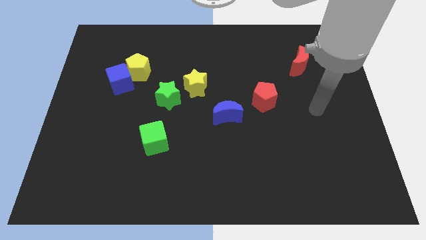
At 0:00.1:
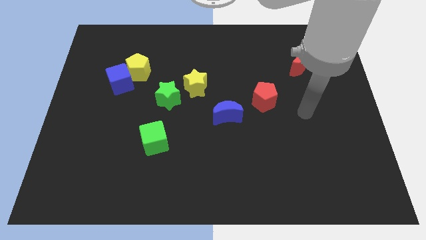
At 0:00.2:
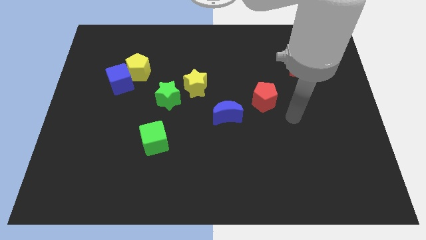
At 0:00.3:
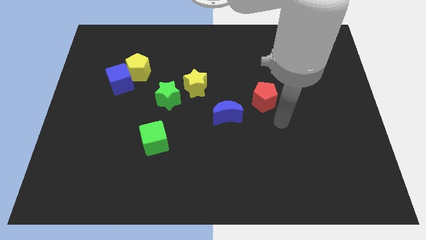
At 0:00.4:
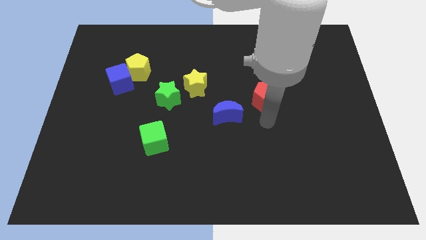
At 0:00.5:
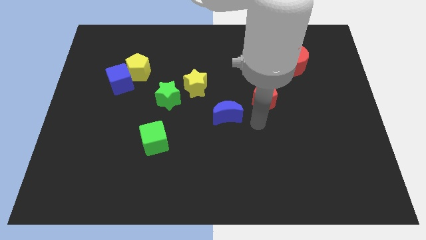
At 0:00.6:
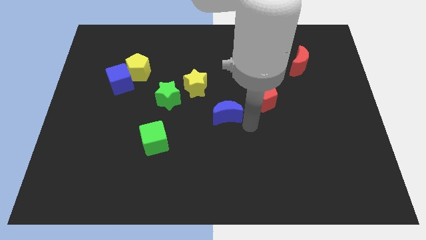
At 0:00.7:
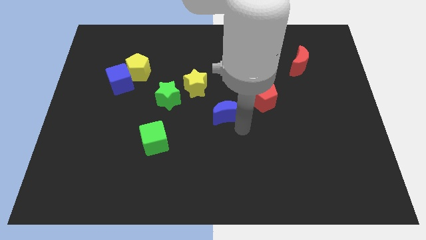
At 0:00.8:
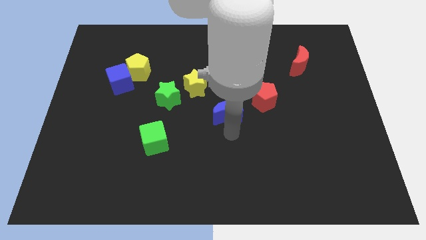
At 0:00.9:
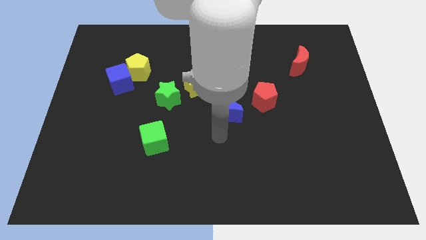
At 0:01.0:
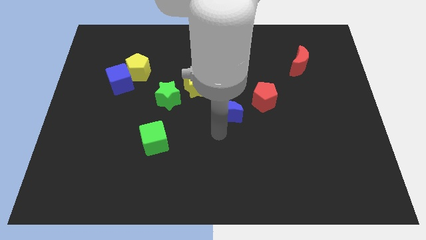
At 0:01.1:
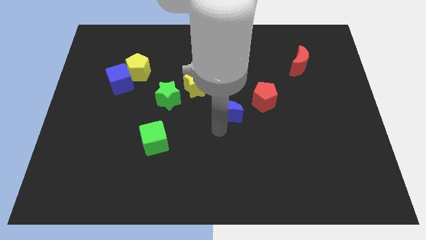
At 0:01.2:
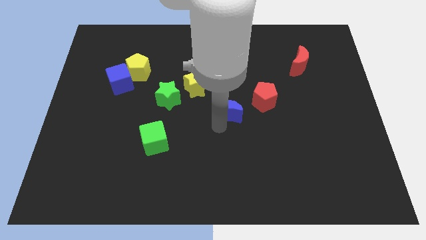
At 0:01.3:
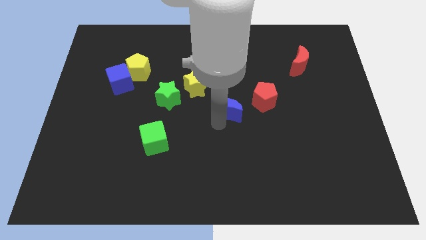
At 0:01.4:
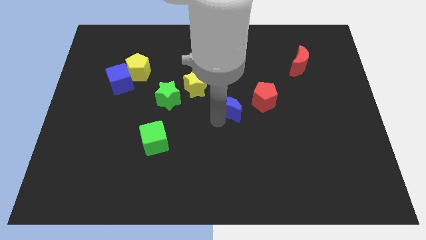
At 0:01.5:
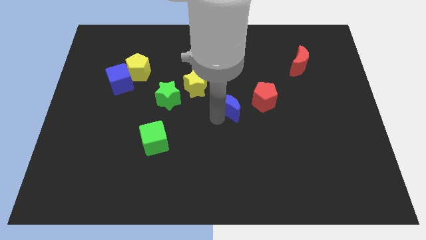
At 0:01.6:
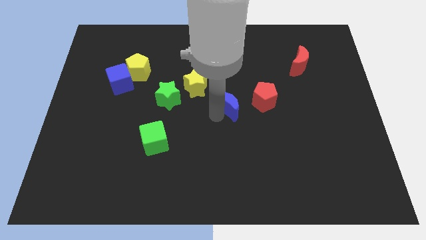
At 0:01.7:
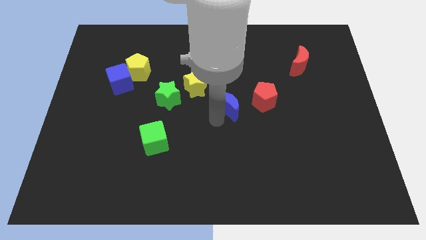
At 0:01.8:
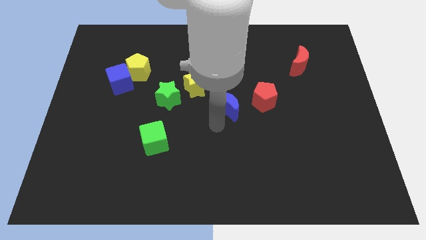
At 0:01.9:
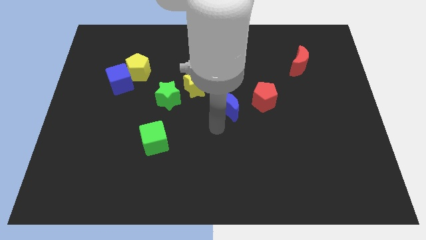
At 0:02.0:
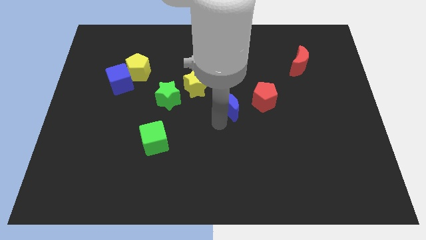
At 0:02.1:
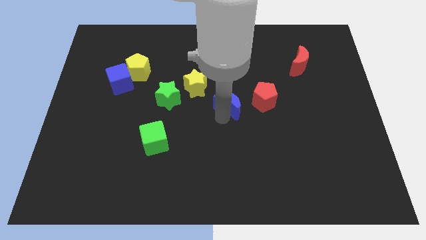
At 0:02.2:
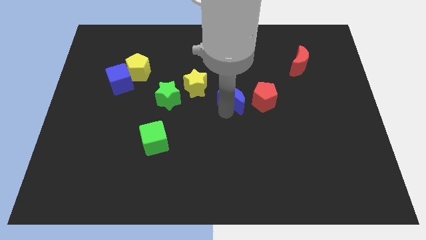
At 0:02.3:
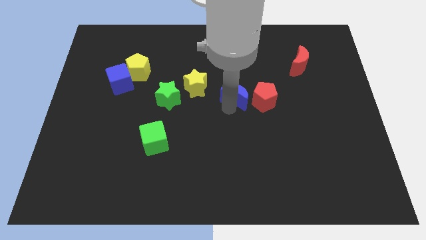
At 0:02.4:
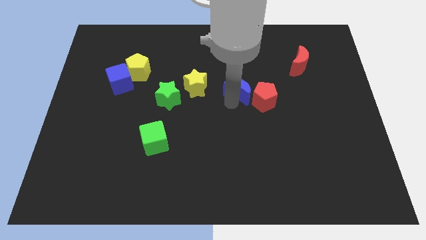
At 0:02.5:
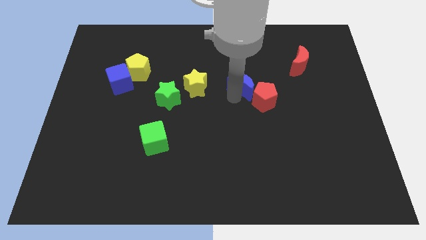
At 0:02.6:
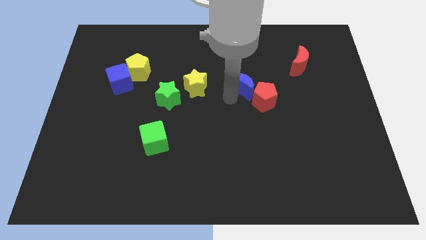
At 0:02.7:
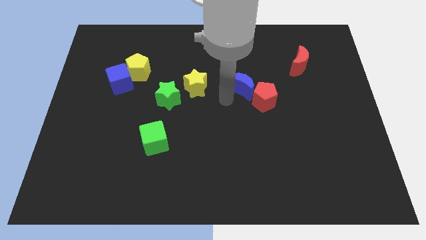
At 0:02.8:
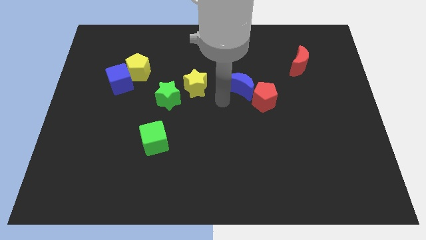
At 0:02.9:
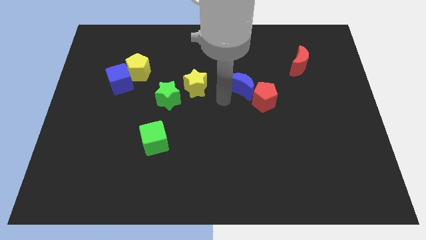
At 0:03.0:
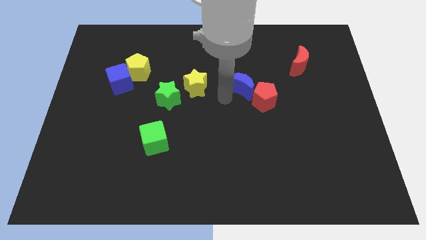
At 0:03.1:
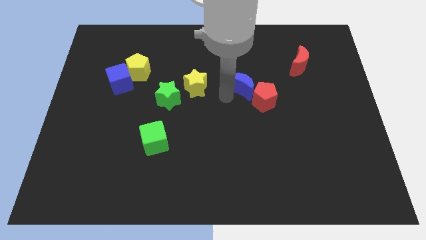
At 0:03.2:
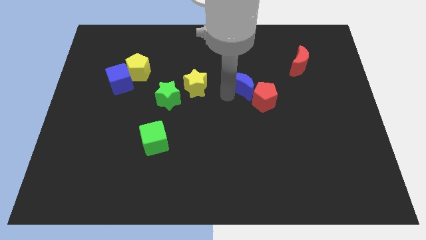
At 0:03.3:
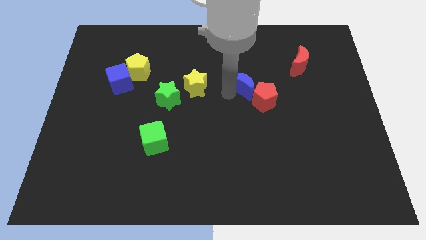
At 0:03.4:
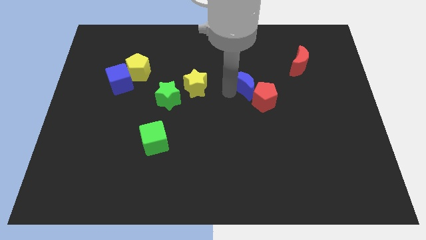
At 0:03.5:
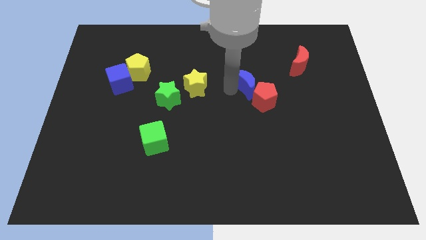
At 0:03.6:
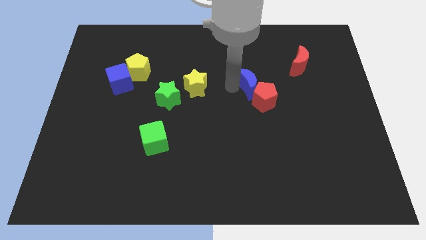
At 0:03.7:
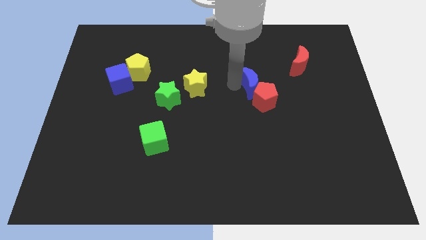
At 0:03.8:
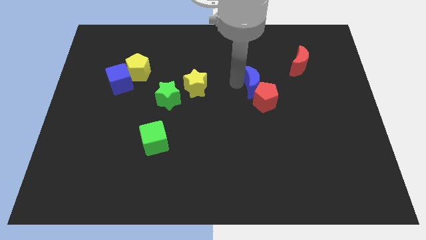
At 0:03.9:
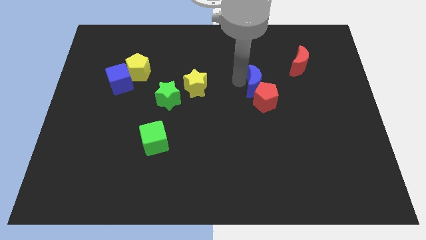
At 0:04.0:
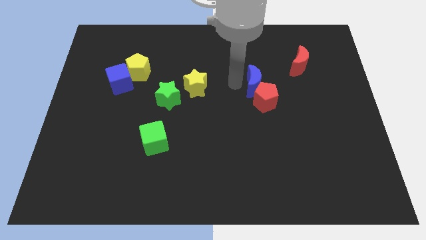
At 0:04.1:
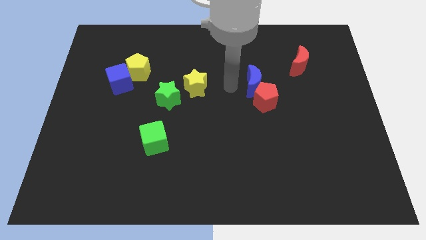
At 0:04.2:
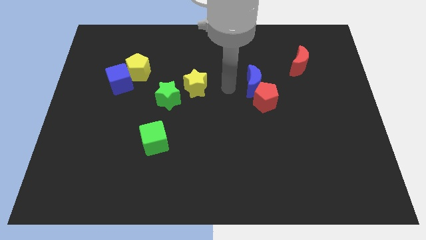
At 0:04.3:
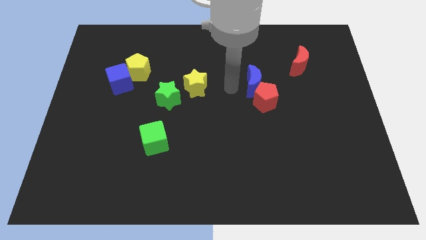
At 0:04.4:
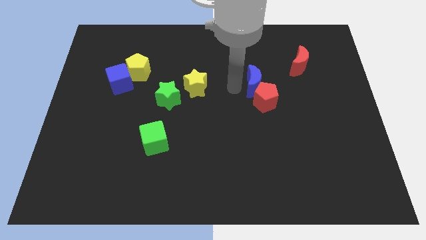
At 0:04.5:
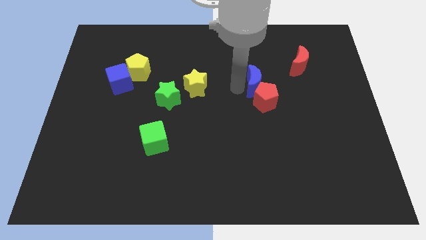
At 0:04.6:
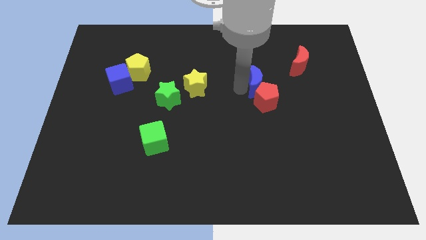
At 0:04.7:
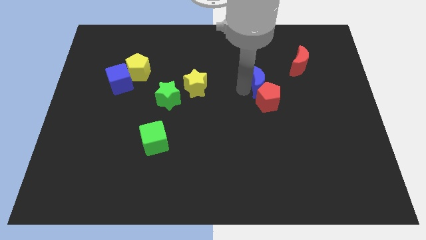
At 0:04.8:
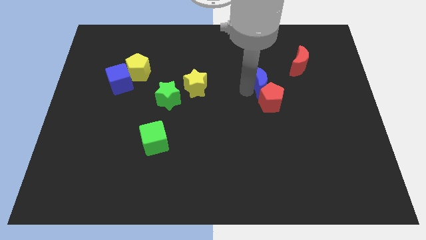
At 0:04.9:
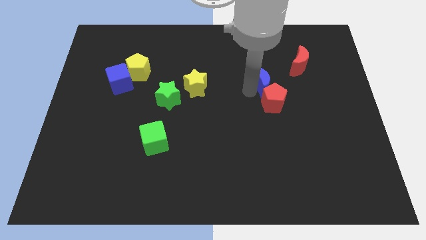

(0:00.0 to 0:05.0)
slide the blue moon to the bottom left of the red moon

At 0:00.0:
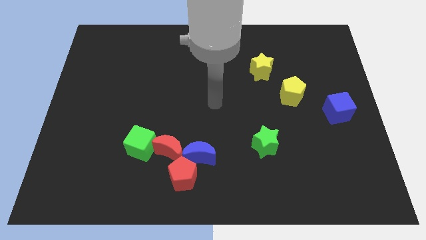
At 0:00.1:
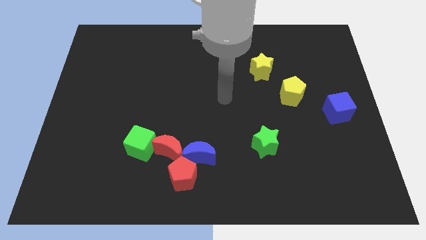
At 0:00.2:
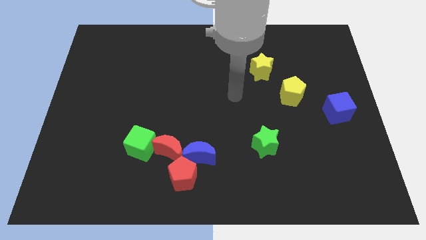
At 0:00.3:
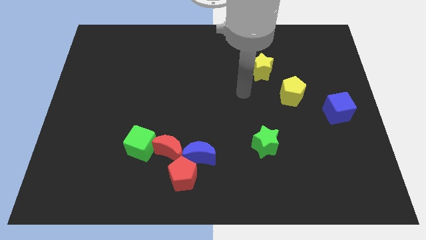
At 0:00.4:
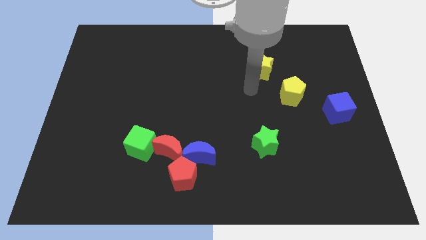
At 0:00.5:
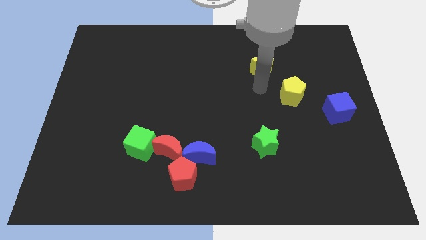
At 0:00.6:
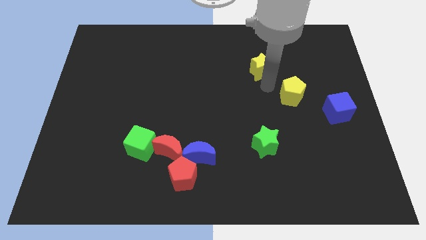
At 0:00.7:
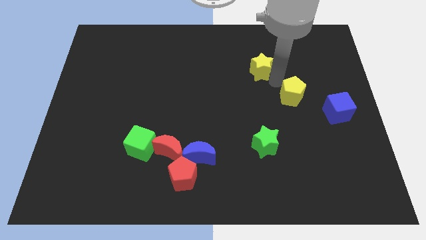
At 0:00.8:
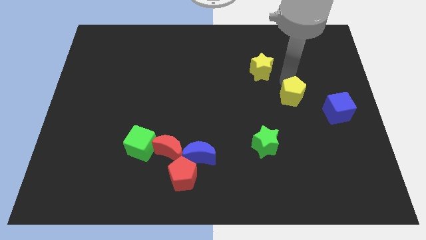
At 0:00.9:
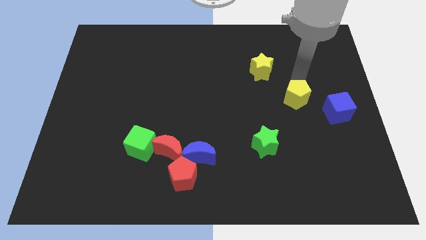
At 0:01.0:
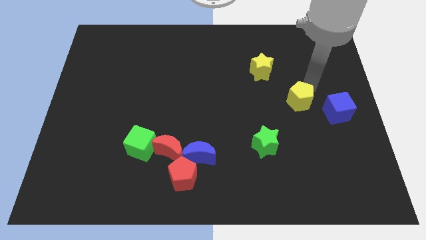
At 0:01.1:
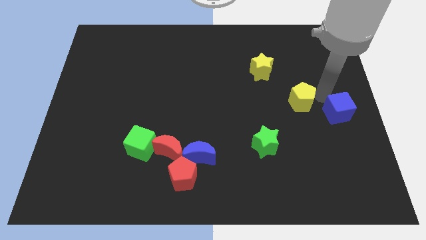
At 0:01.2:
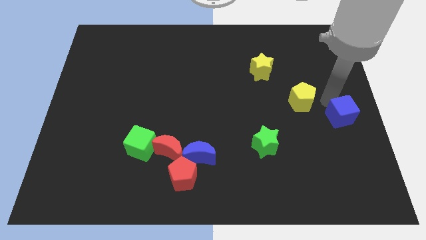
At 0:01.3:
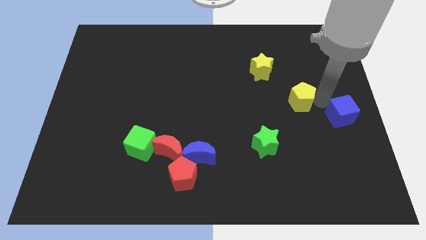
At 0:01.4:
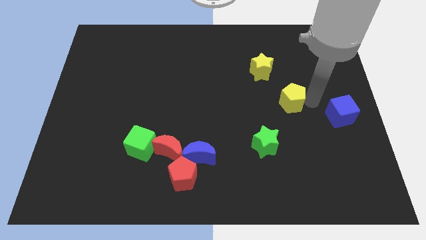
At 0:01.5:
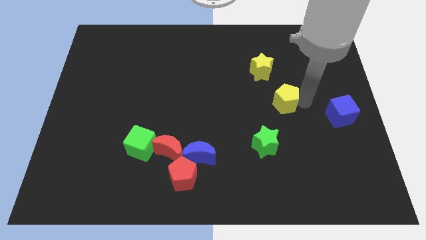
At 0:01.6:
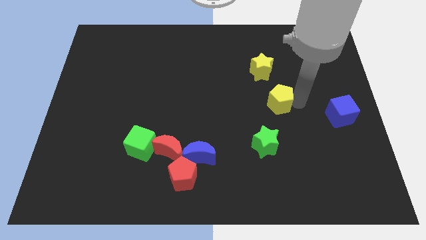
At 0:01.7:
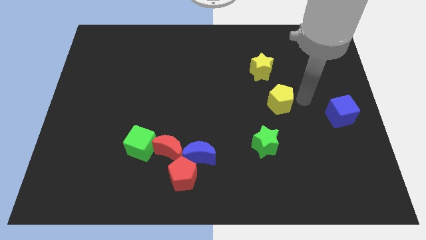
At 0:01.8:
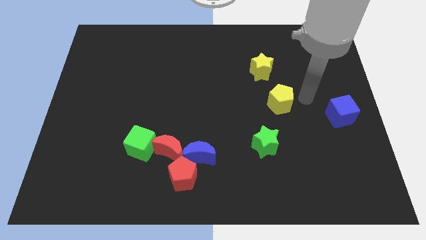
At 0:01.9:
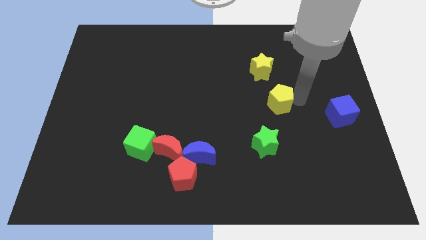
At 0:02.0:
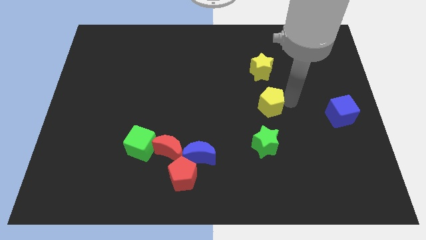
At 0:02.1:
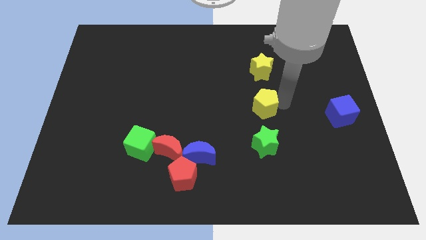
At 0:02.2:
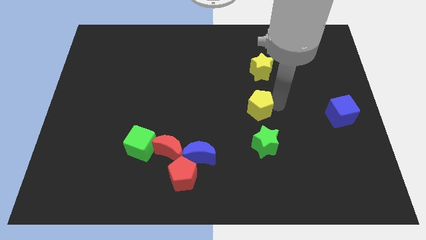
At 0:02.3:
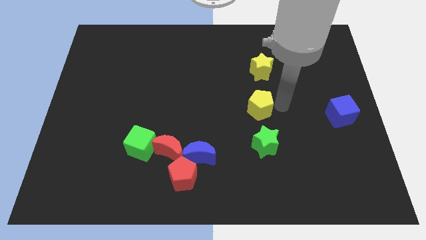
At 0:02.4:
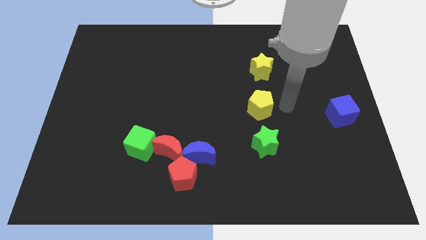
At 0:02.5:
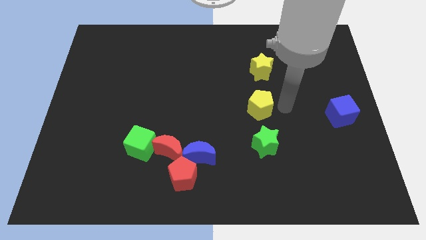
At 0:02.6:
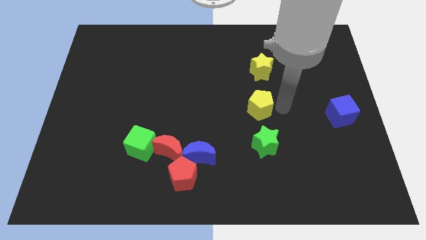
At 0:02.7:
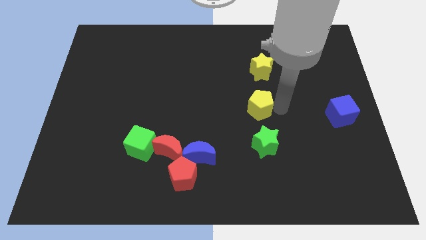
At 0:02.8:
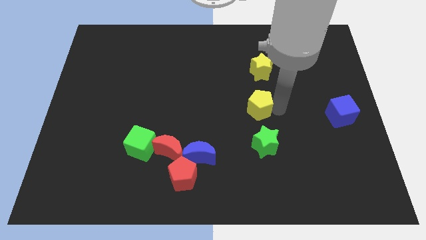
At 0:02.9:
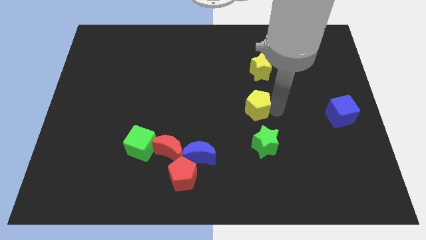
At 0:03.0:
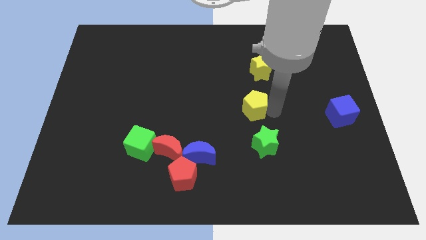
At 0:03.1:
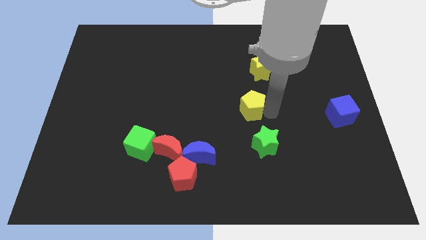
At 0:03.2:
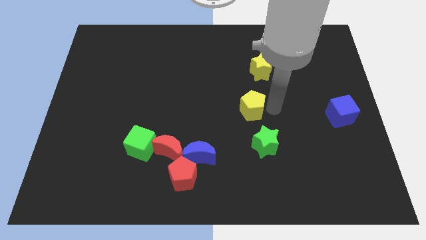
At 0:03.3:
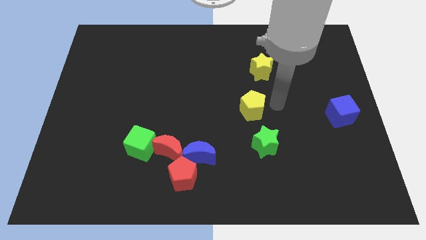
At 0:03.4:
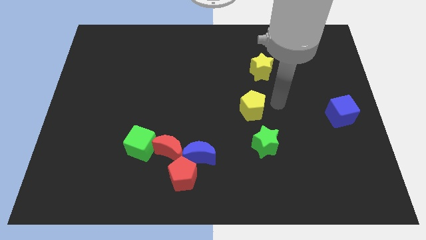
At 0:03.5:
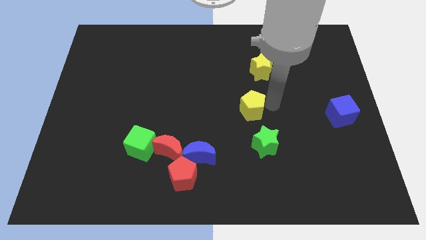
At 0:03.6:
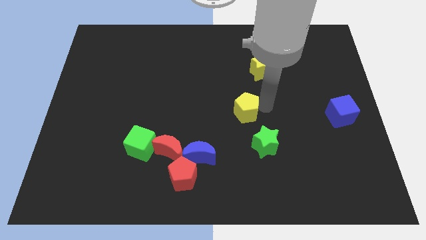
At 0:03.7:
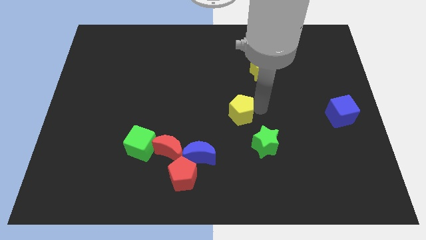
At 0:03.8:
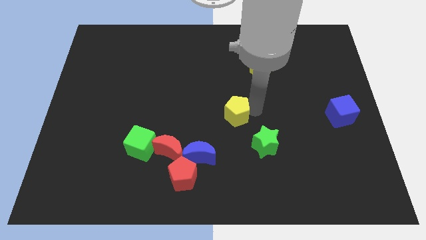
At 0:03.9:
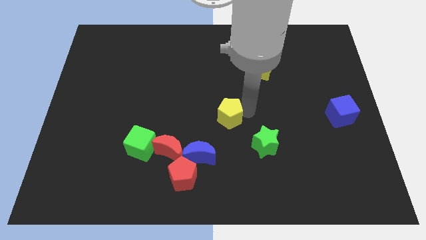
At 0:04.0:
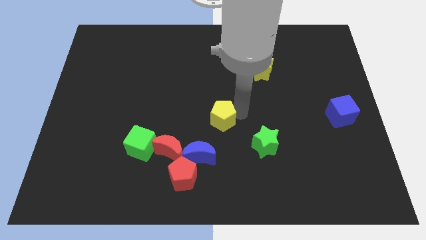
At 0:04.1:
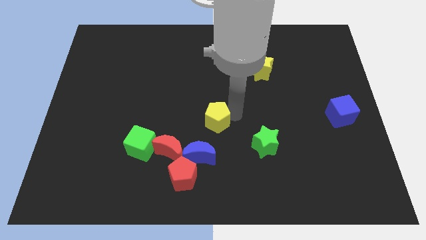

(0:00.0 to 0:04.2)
move the yellow pentagon to the top right of the red moon
